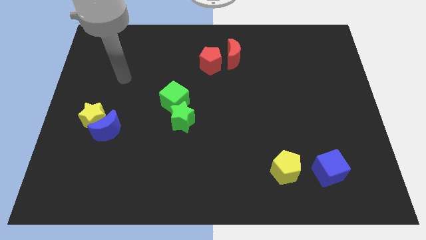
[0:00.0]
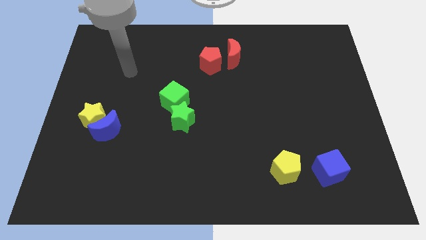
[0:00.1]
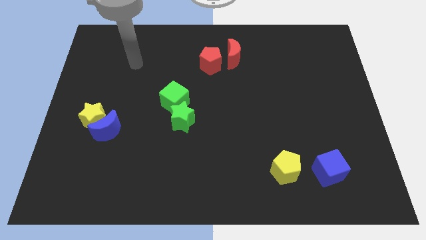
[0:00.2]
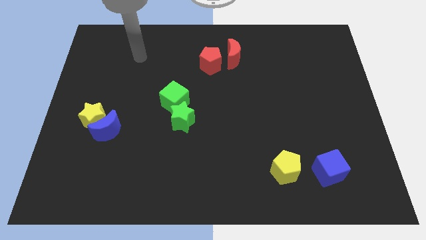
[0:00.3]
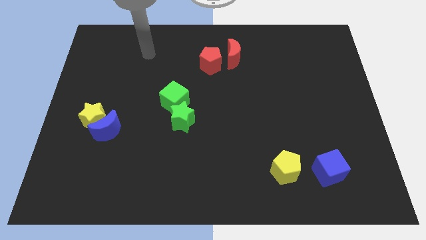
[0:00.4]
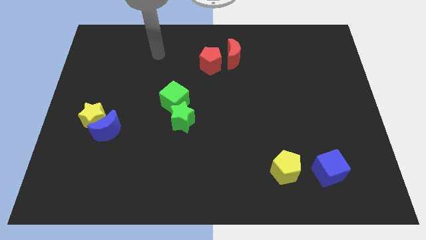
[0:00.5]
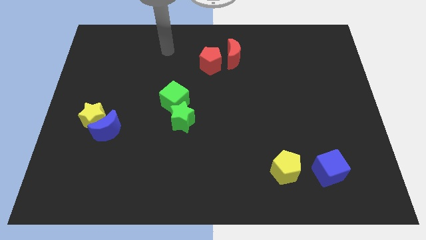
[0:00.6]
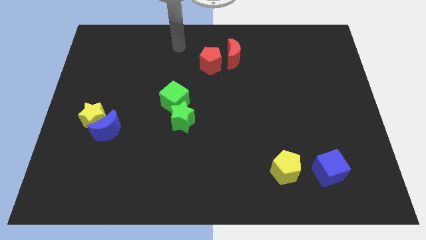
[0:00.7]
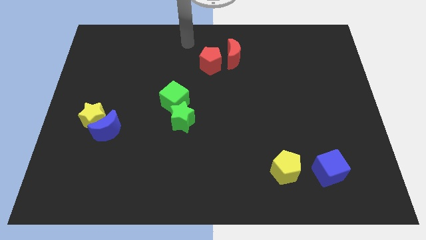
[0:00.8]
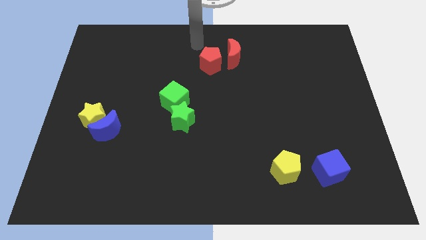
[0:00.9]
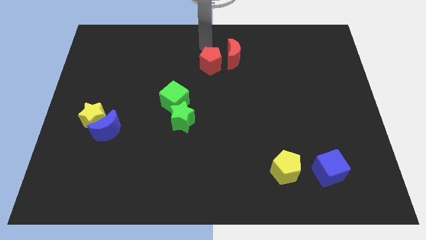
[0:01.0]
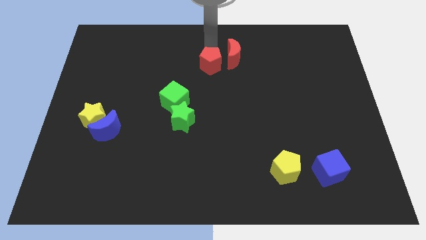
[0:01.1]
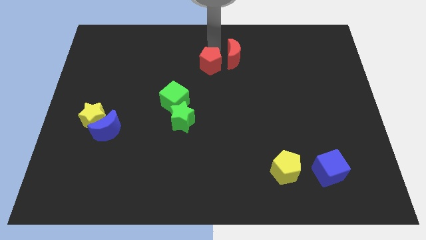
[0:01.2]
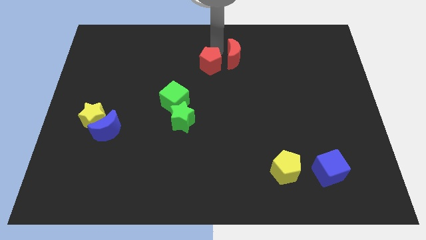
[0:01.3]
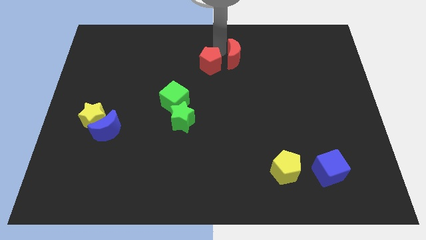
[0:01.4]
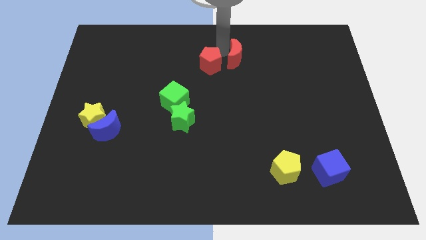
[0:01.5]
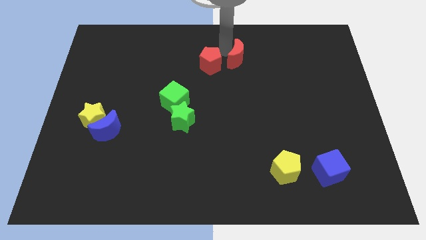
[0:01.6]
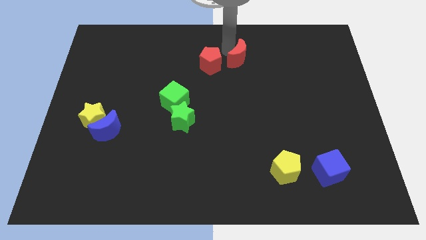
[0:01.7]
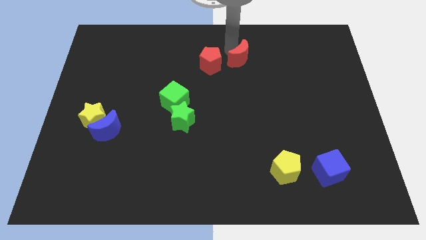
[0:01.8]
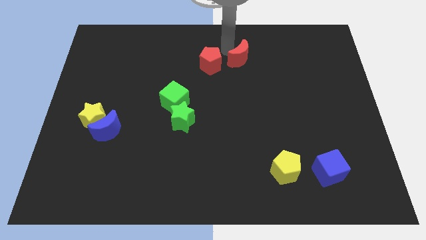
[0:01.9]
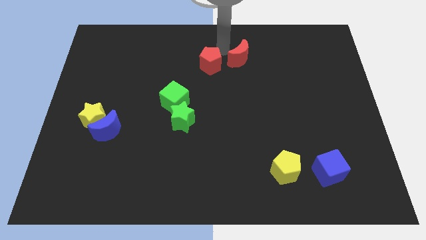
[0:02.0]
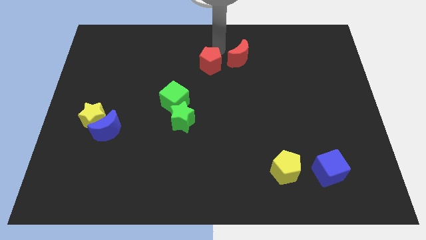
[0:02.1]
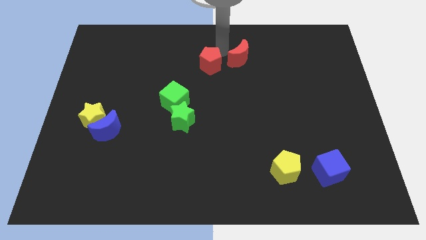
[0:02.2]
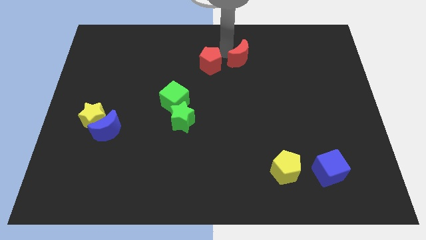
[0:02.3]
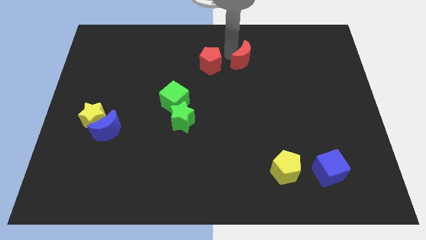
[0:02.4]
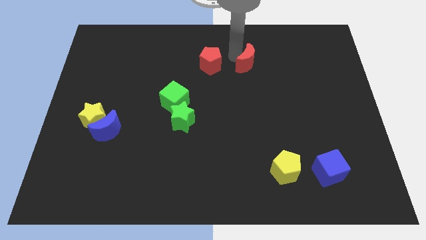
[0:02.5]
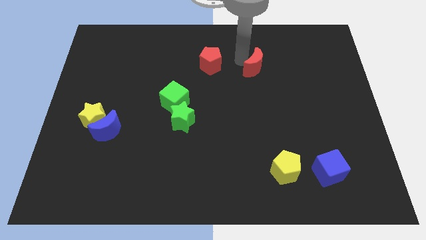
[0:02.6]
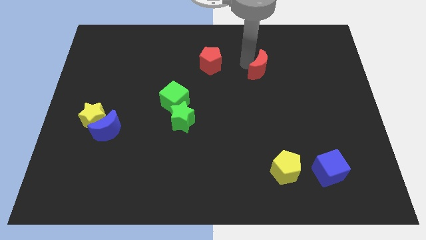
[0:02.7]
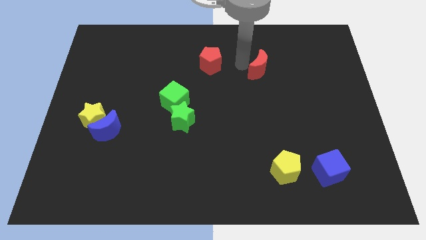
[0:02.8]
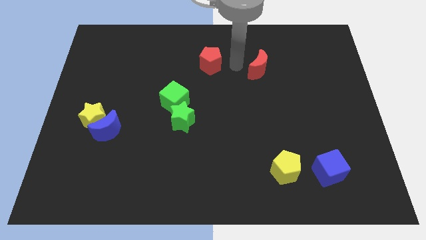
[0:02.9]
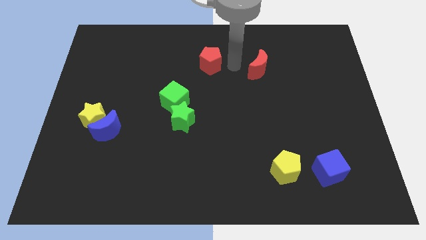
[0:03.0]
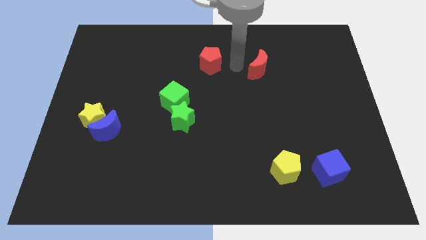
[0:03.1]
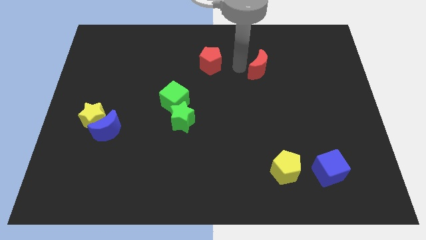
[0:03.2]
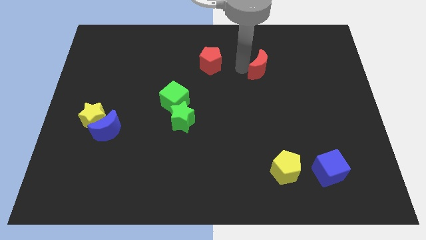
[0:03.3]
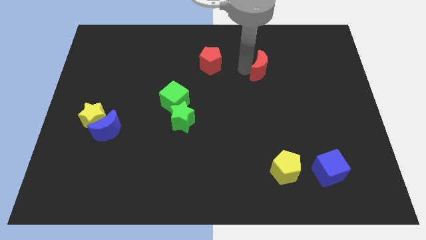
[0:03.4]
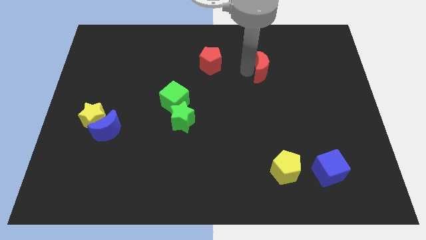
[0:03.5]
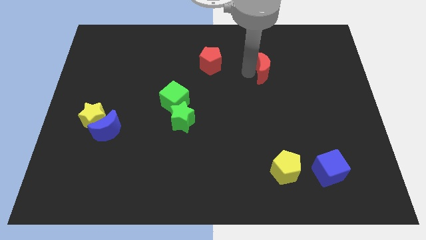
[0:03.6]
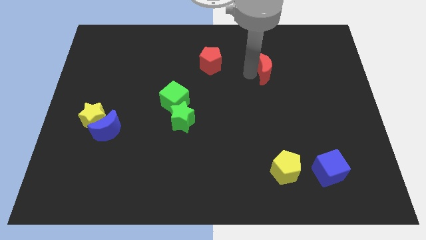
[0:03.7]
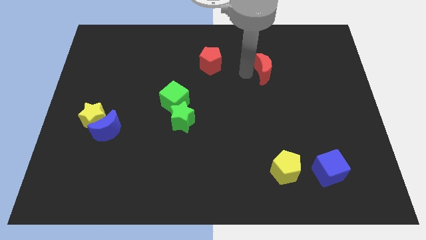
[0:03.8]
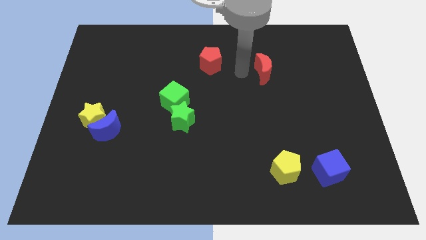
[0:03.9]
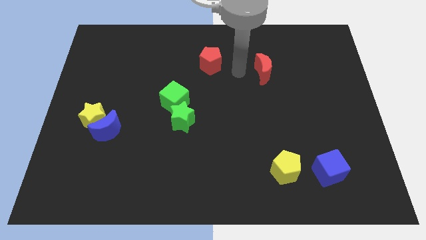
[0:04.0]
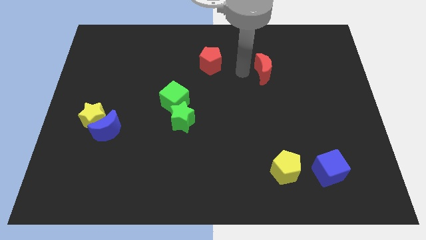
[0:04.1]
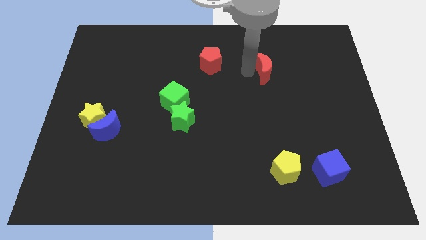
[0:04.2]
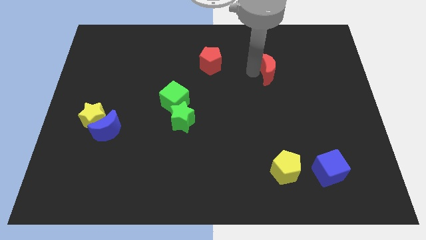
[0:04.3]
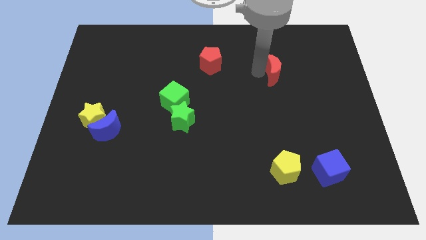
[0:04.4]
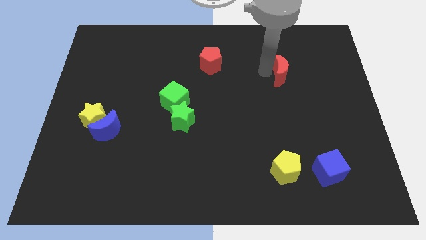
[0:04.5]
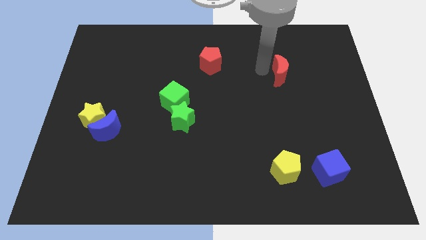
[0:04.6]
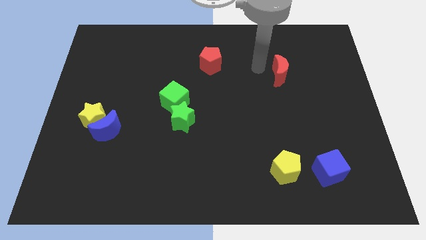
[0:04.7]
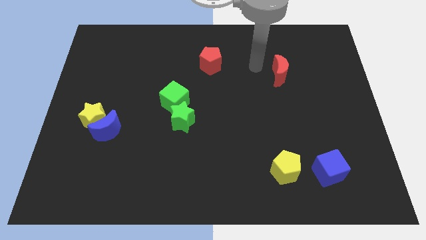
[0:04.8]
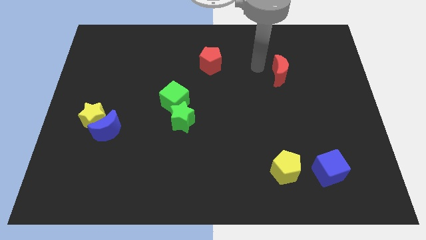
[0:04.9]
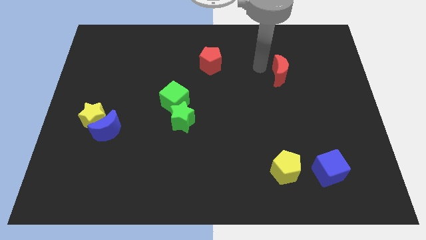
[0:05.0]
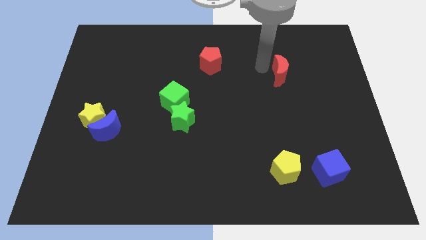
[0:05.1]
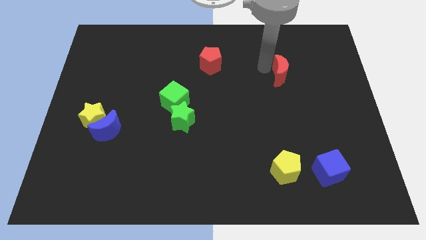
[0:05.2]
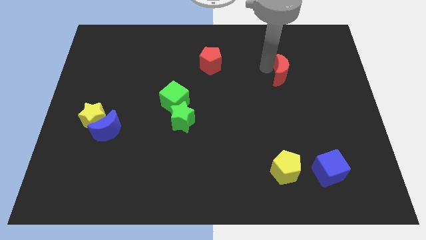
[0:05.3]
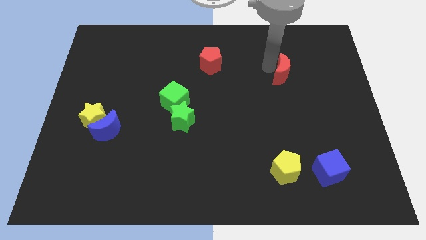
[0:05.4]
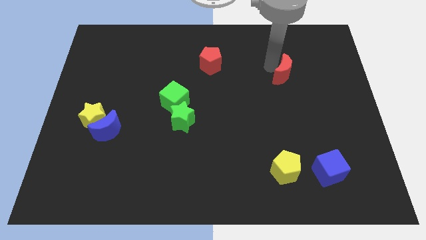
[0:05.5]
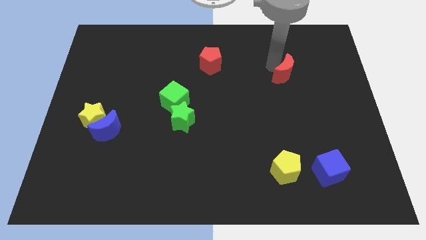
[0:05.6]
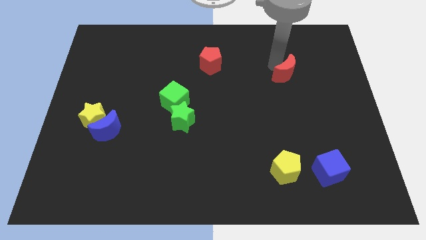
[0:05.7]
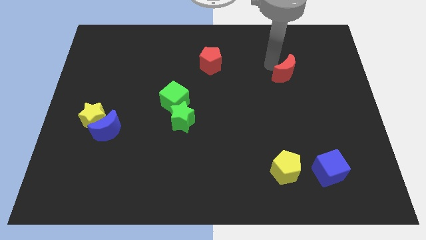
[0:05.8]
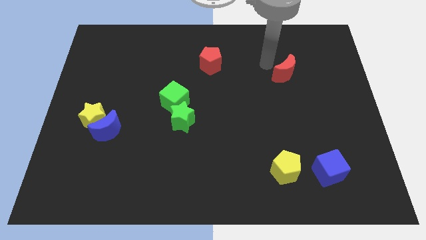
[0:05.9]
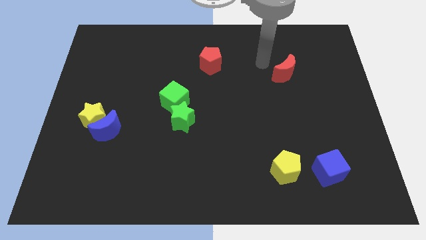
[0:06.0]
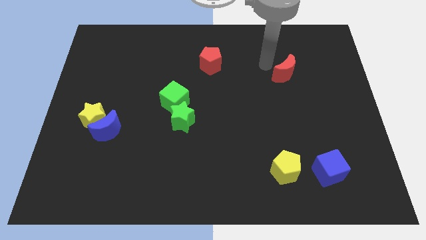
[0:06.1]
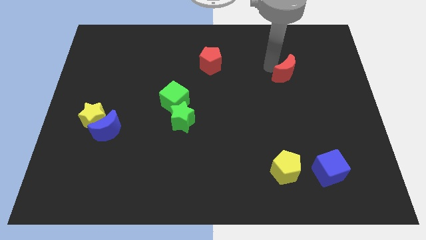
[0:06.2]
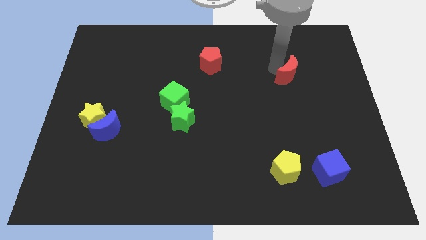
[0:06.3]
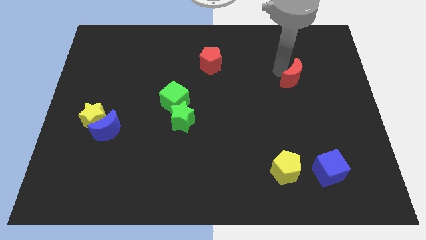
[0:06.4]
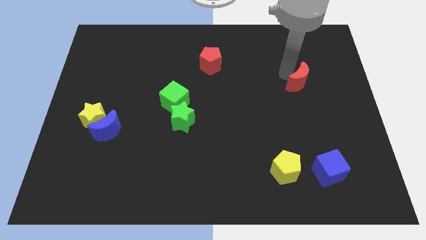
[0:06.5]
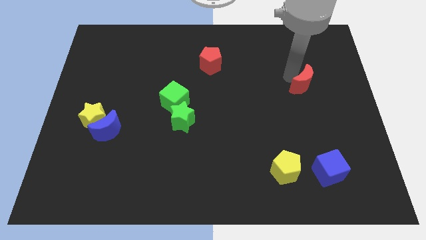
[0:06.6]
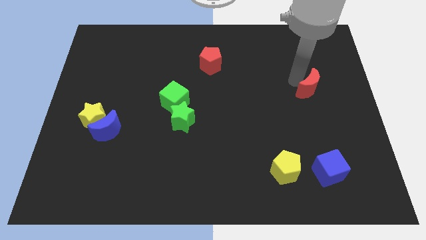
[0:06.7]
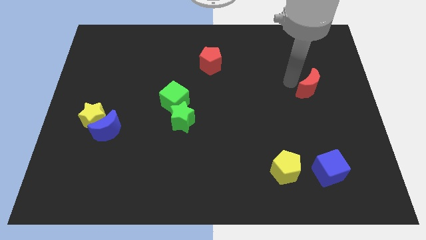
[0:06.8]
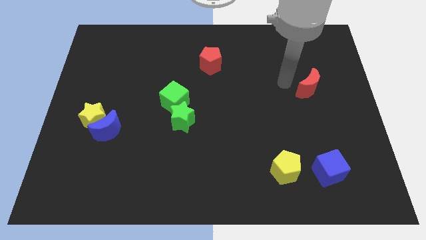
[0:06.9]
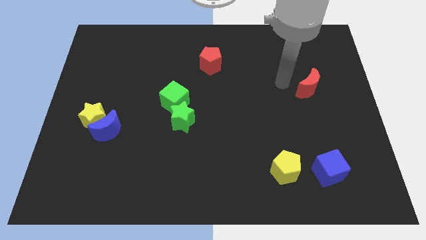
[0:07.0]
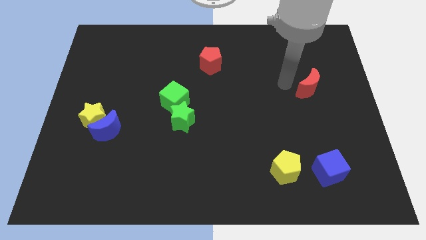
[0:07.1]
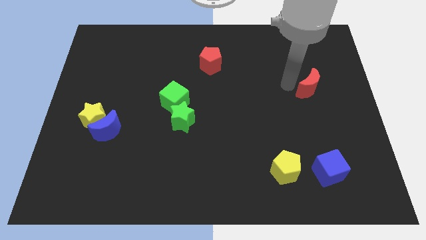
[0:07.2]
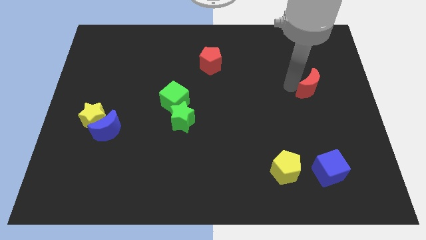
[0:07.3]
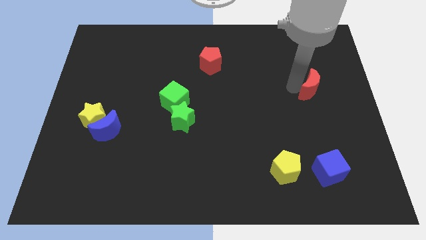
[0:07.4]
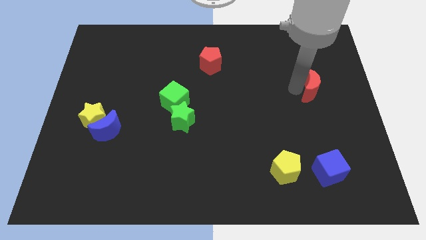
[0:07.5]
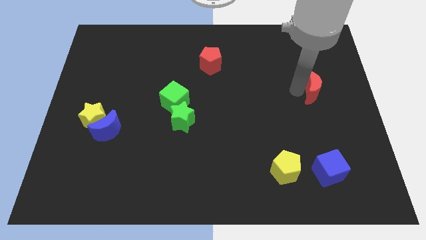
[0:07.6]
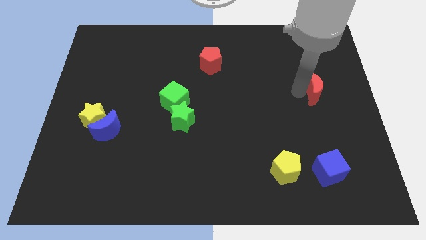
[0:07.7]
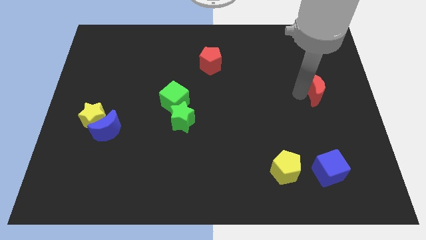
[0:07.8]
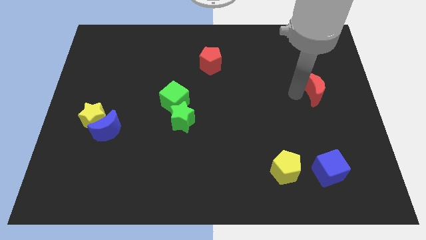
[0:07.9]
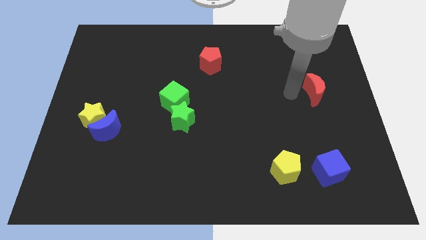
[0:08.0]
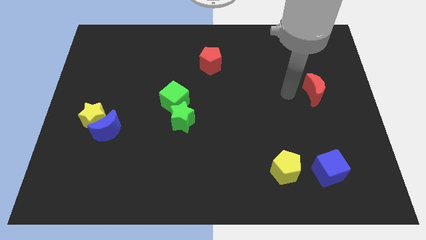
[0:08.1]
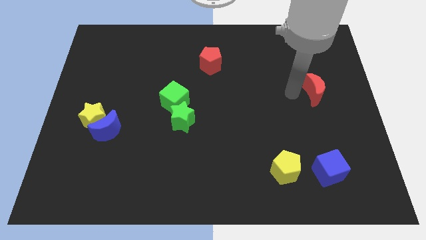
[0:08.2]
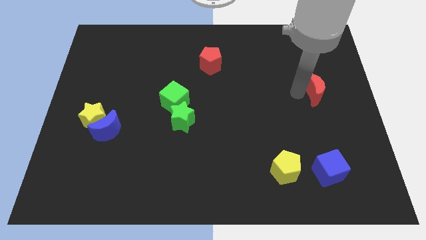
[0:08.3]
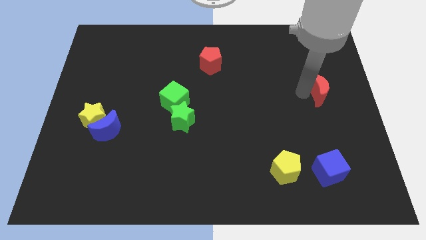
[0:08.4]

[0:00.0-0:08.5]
put the red moon to the right side of the board
